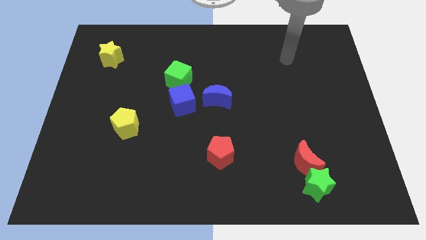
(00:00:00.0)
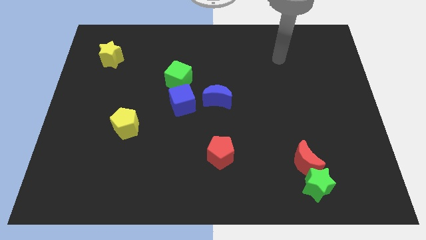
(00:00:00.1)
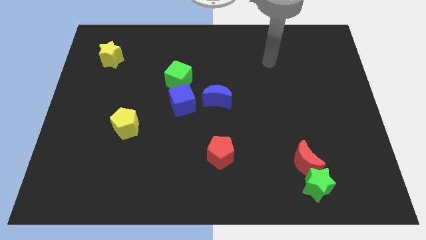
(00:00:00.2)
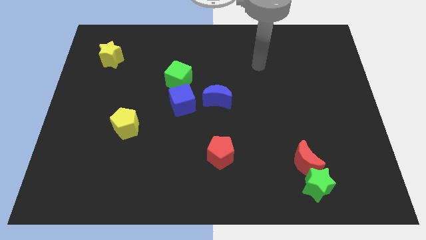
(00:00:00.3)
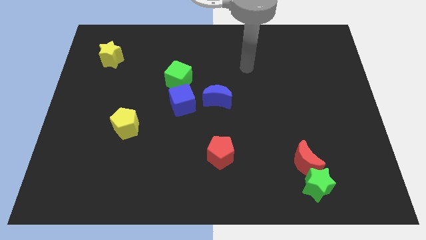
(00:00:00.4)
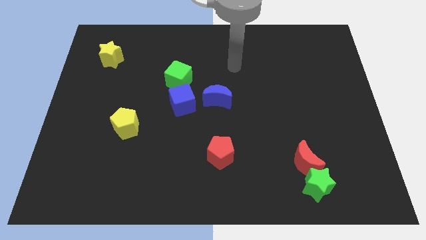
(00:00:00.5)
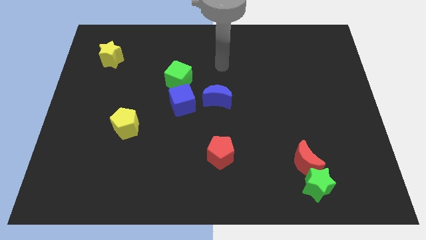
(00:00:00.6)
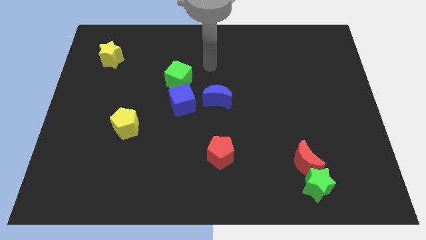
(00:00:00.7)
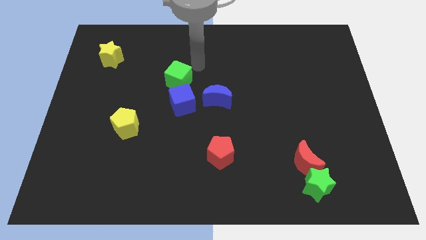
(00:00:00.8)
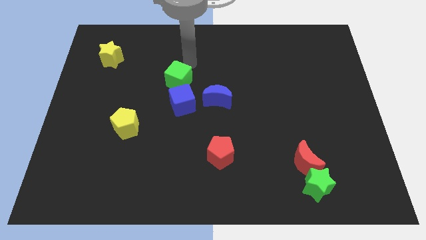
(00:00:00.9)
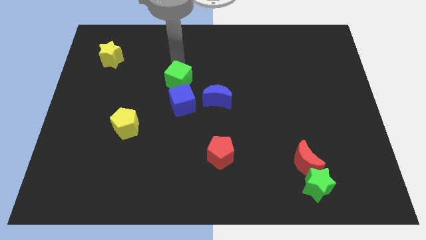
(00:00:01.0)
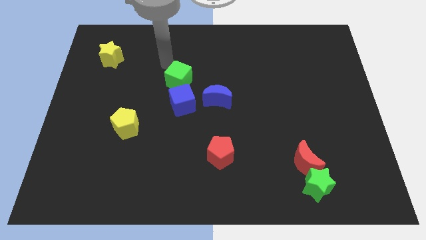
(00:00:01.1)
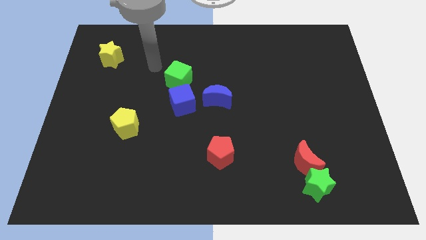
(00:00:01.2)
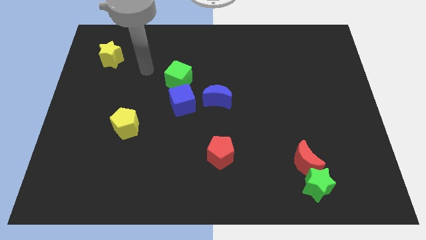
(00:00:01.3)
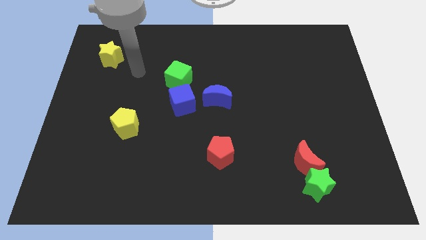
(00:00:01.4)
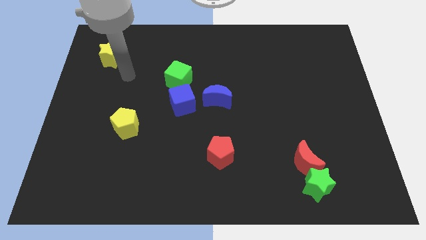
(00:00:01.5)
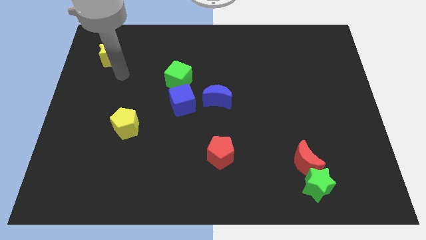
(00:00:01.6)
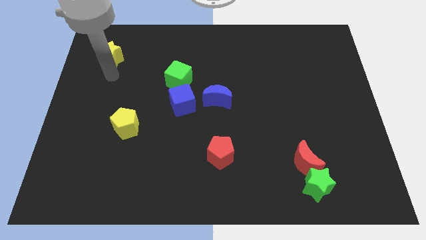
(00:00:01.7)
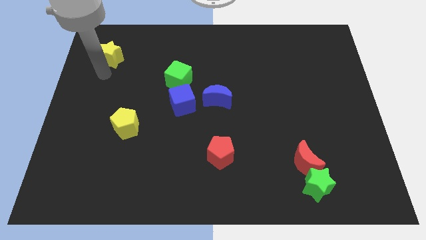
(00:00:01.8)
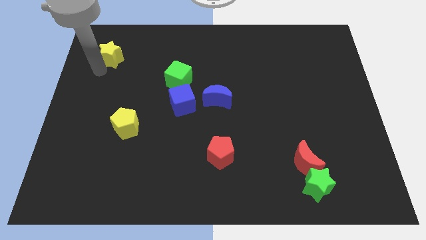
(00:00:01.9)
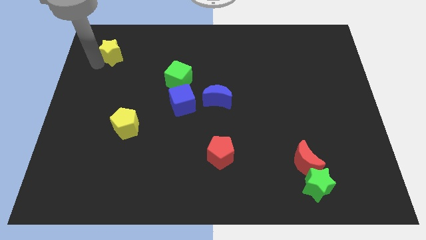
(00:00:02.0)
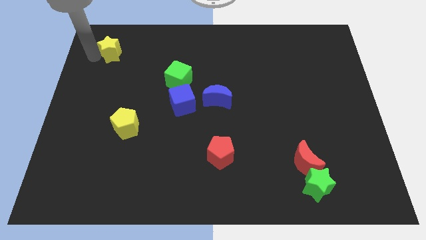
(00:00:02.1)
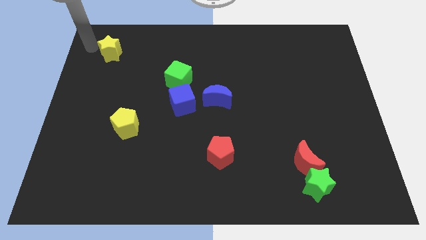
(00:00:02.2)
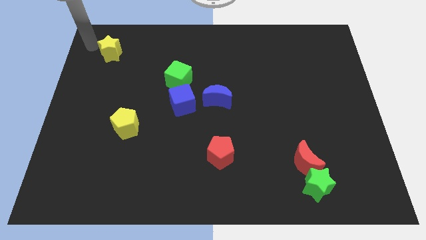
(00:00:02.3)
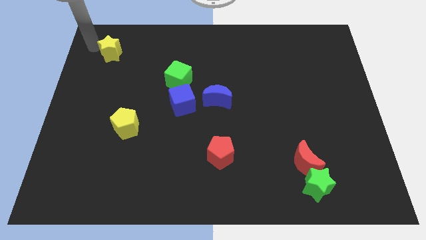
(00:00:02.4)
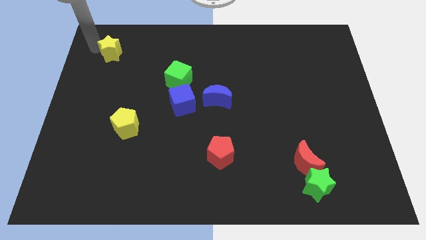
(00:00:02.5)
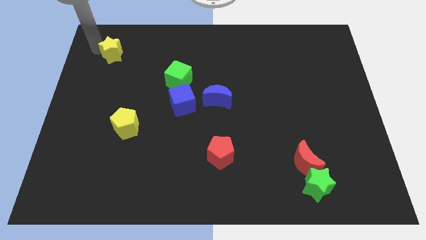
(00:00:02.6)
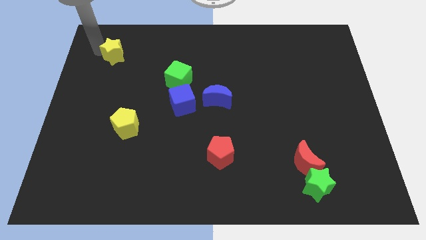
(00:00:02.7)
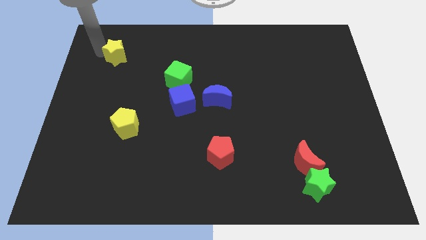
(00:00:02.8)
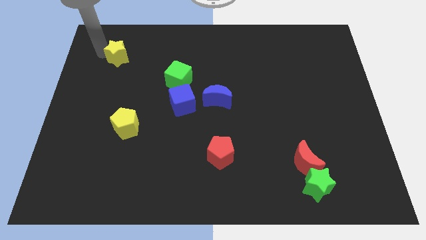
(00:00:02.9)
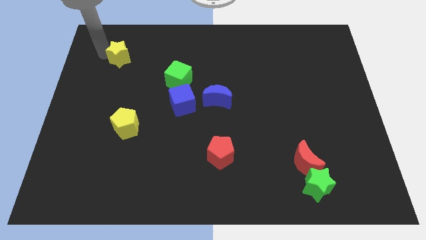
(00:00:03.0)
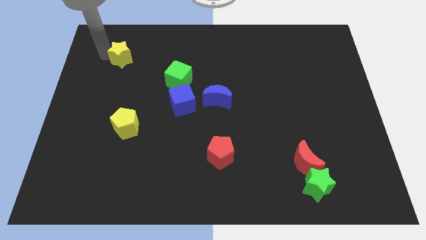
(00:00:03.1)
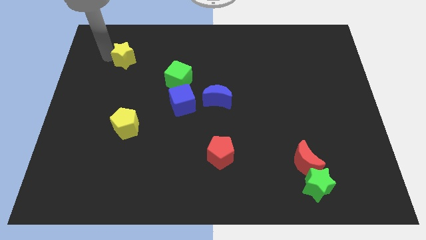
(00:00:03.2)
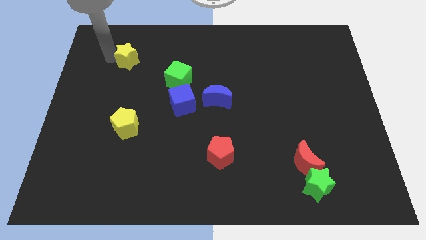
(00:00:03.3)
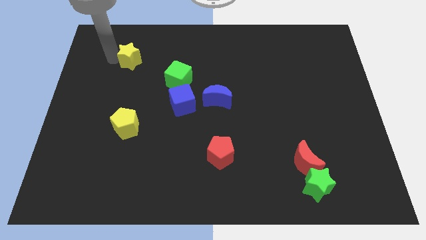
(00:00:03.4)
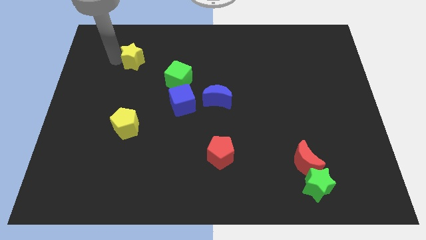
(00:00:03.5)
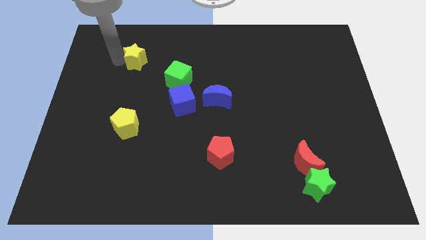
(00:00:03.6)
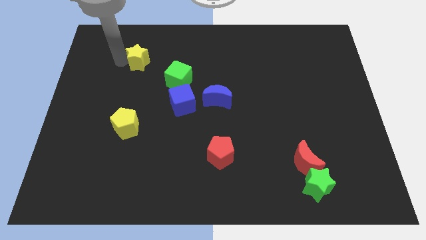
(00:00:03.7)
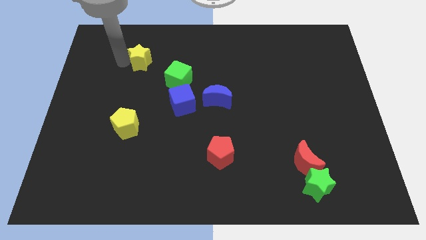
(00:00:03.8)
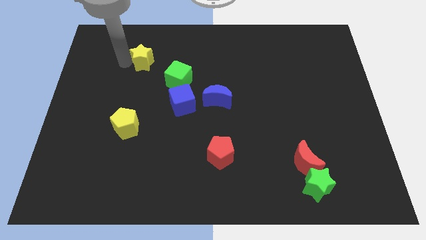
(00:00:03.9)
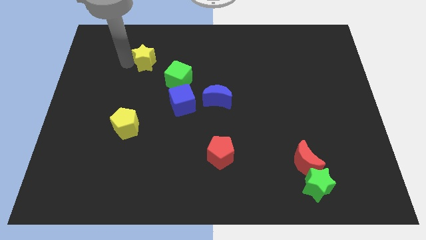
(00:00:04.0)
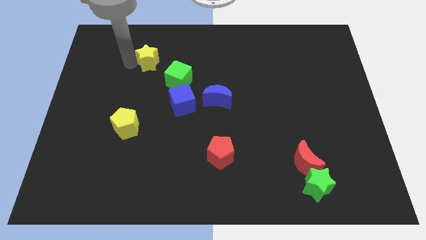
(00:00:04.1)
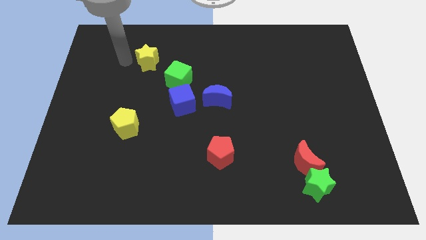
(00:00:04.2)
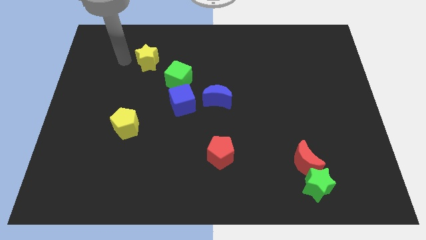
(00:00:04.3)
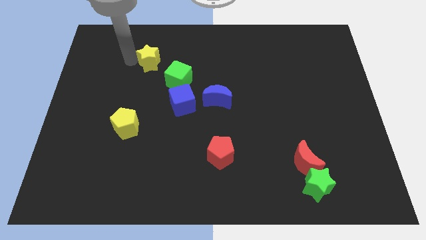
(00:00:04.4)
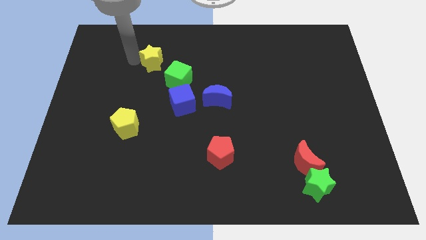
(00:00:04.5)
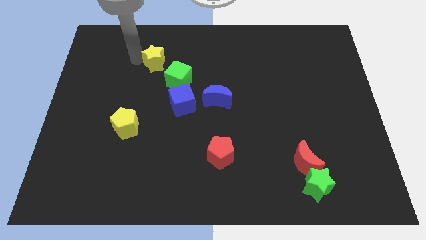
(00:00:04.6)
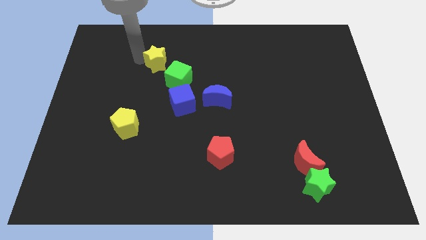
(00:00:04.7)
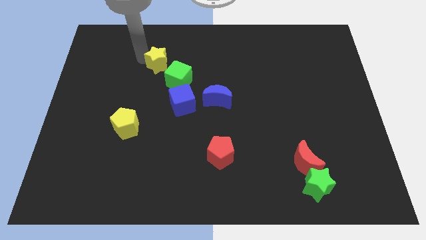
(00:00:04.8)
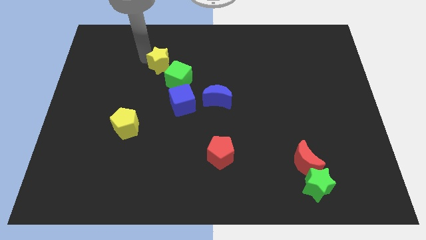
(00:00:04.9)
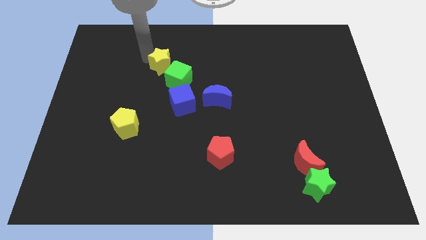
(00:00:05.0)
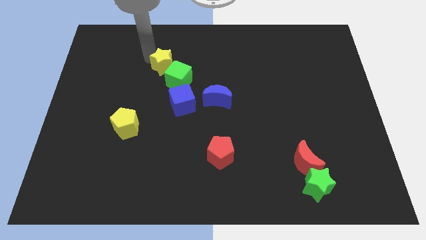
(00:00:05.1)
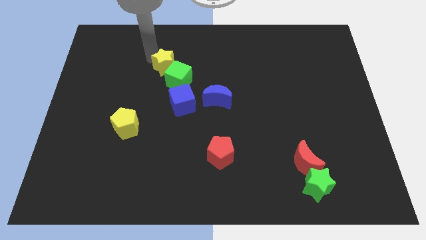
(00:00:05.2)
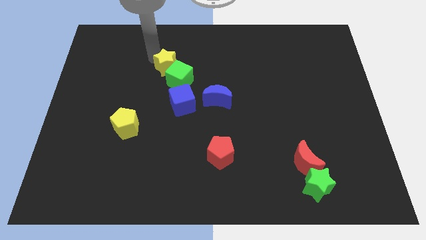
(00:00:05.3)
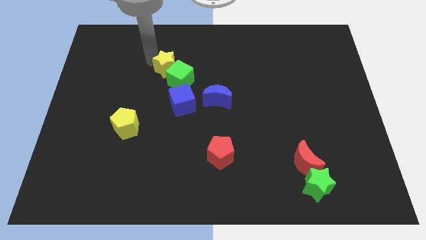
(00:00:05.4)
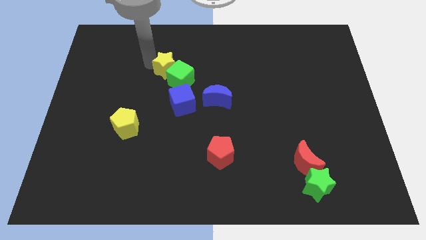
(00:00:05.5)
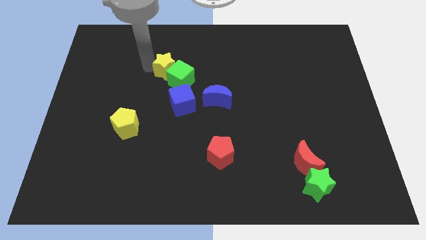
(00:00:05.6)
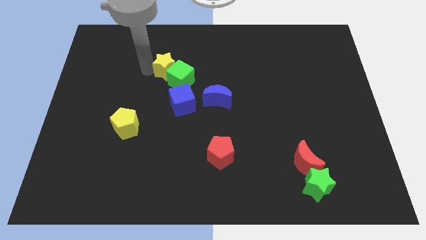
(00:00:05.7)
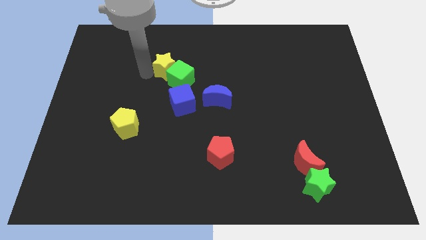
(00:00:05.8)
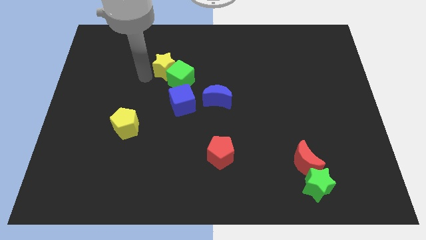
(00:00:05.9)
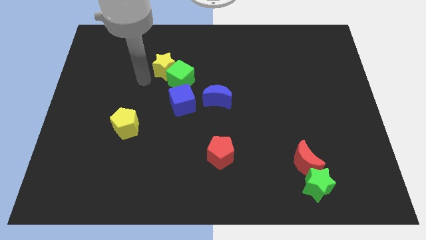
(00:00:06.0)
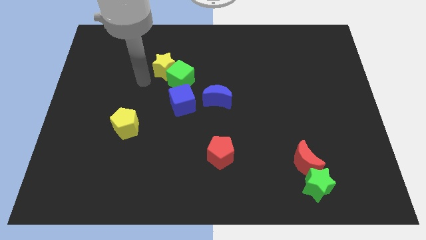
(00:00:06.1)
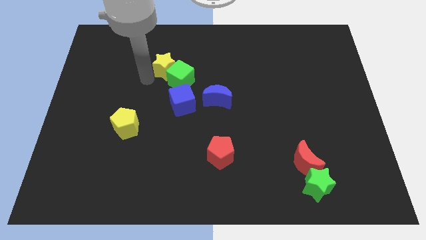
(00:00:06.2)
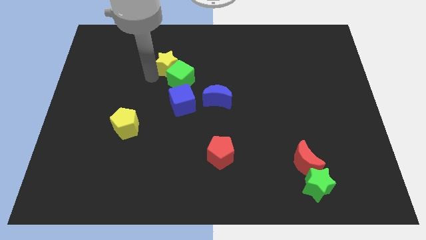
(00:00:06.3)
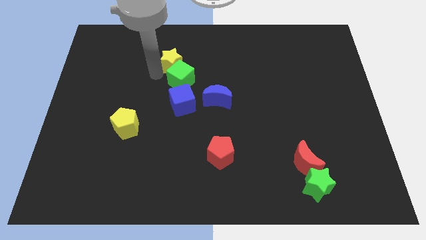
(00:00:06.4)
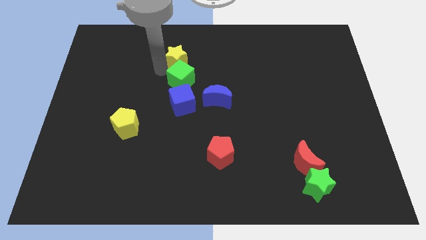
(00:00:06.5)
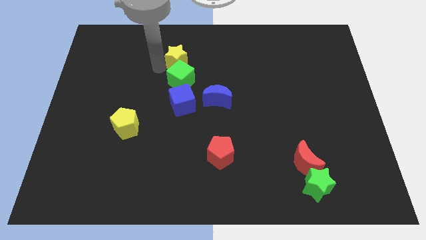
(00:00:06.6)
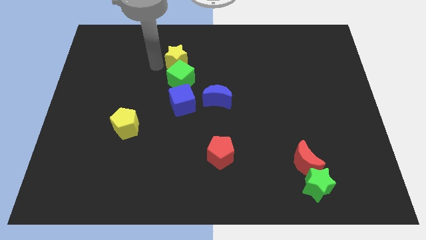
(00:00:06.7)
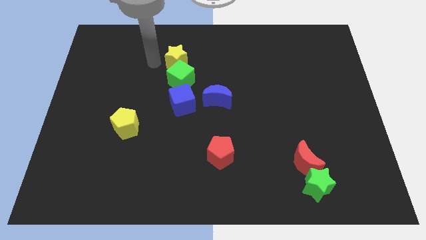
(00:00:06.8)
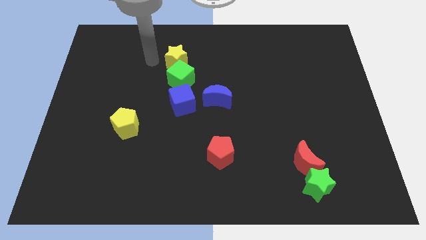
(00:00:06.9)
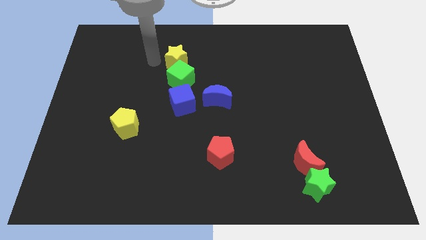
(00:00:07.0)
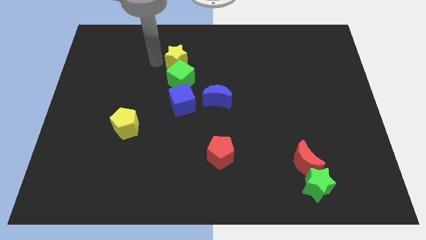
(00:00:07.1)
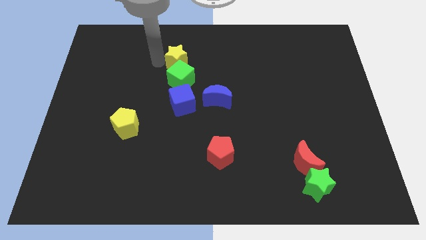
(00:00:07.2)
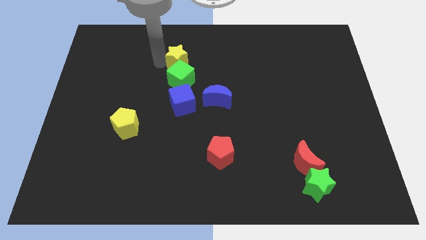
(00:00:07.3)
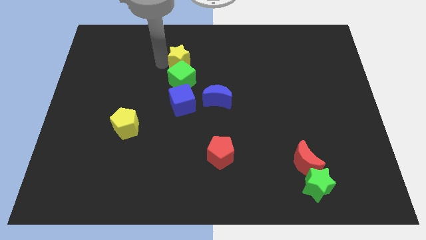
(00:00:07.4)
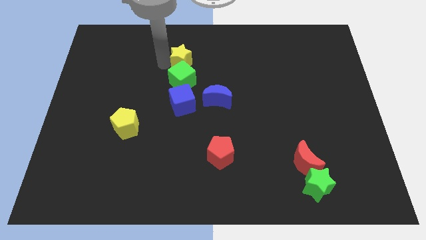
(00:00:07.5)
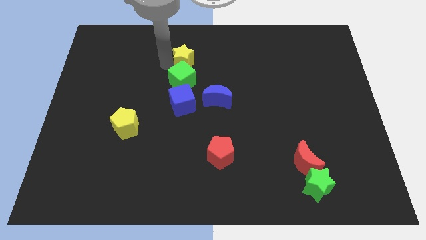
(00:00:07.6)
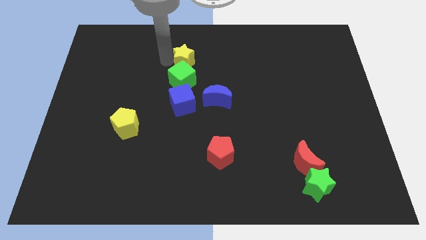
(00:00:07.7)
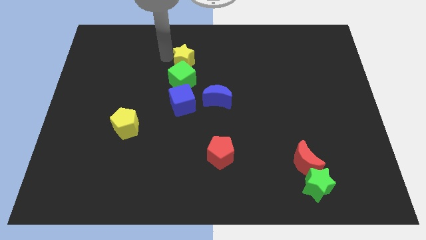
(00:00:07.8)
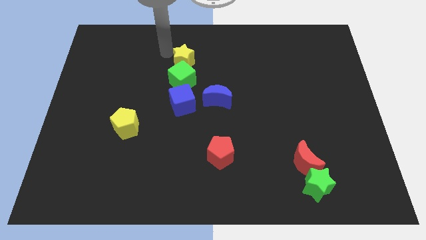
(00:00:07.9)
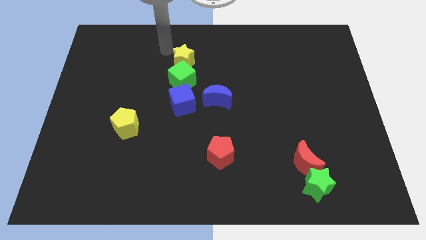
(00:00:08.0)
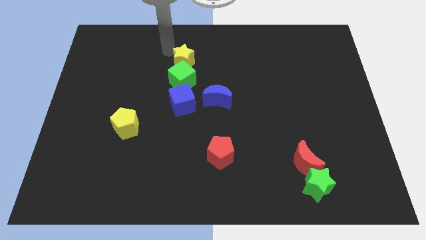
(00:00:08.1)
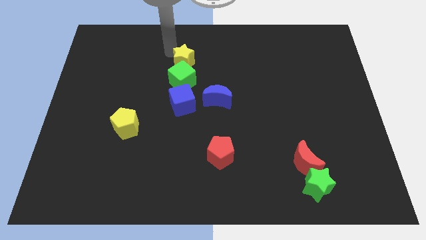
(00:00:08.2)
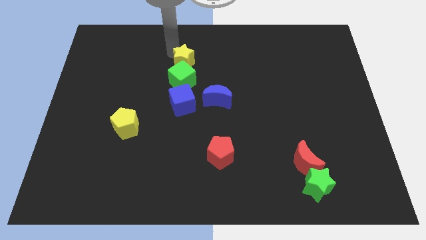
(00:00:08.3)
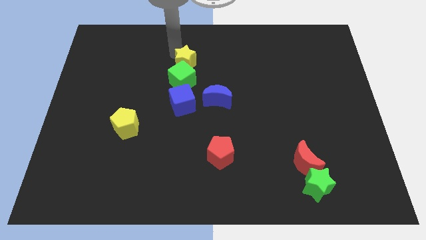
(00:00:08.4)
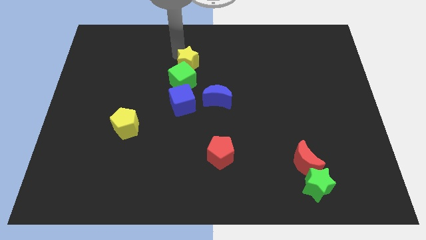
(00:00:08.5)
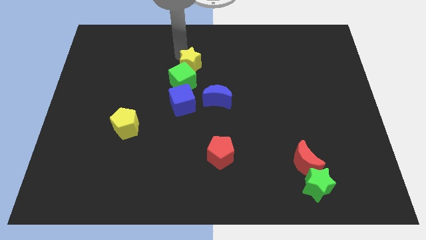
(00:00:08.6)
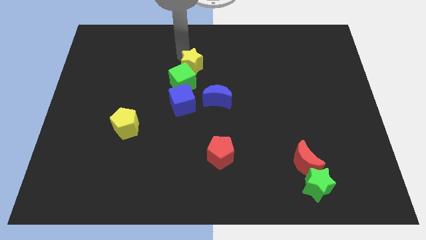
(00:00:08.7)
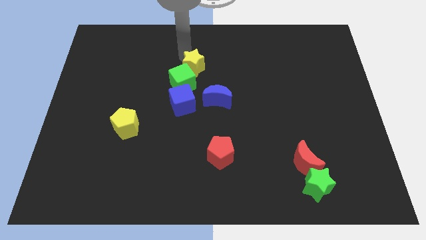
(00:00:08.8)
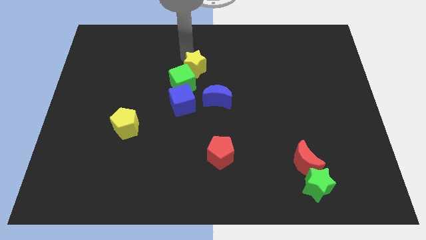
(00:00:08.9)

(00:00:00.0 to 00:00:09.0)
push the yellow star diagonally up and to the left of the blue moon
